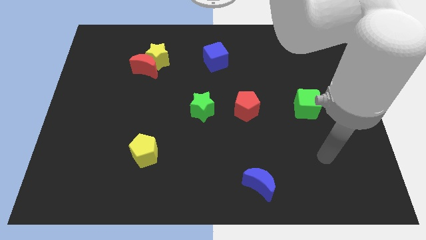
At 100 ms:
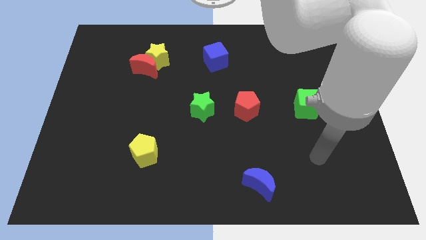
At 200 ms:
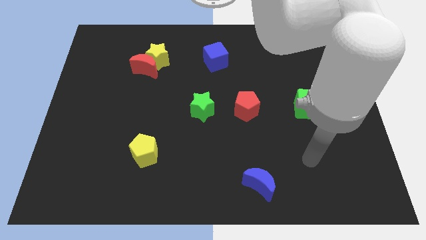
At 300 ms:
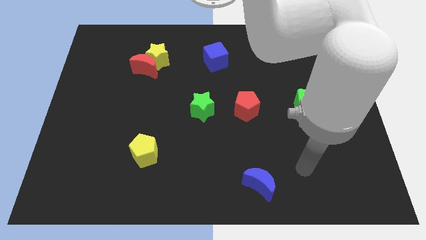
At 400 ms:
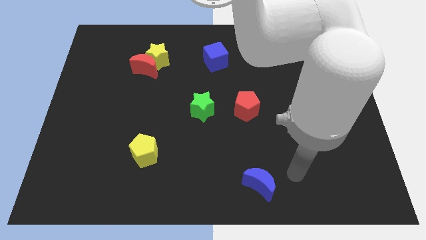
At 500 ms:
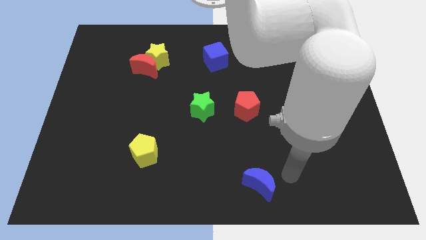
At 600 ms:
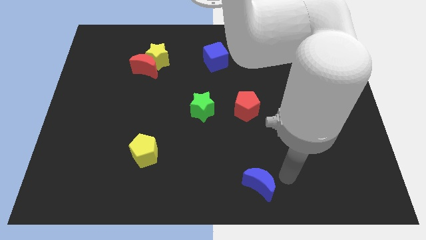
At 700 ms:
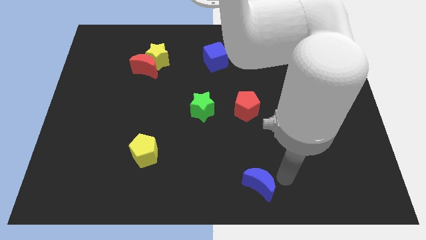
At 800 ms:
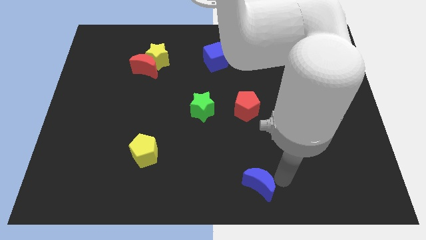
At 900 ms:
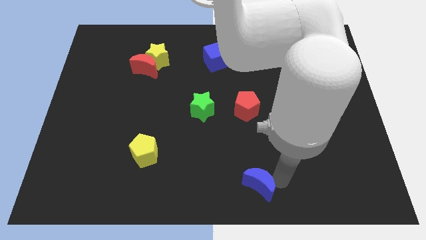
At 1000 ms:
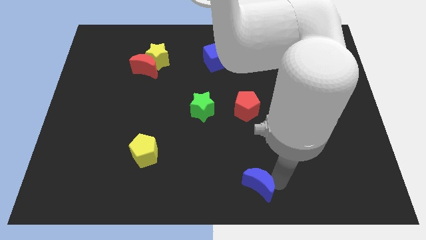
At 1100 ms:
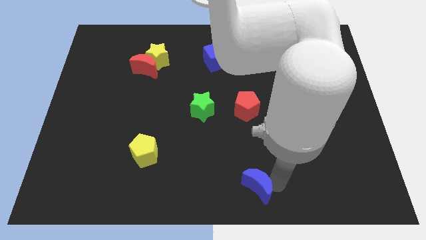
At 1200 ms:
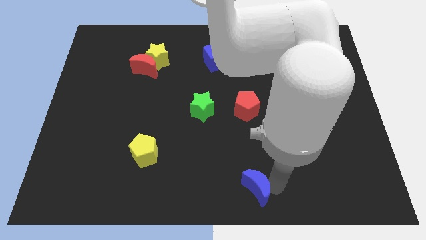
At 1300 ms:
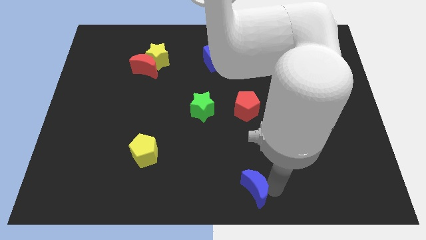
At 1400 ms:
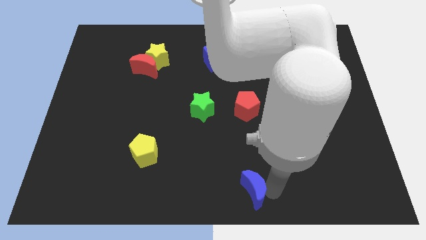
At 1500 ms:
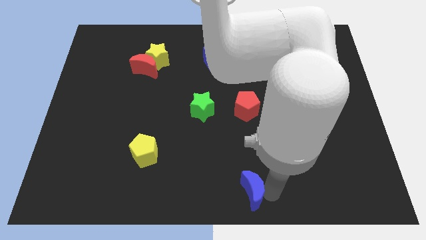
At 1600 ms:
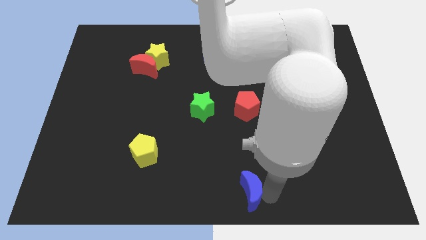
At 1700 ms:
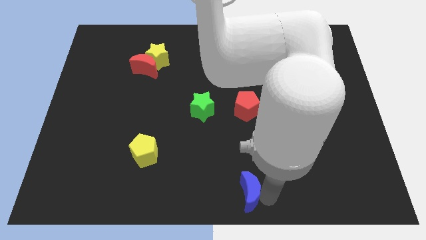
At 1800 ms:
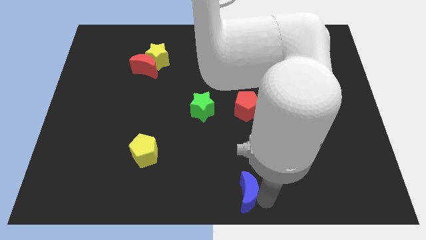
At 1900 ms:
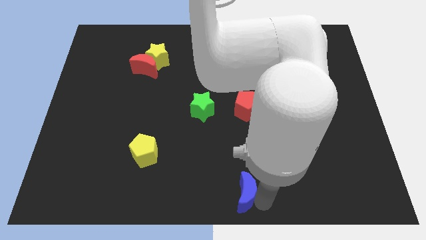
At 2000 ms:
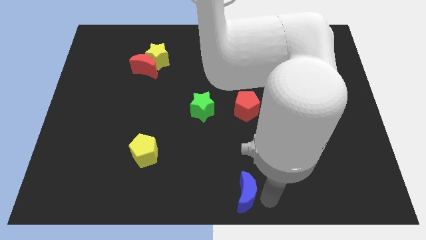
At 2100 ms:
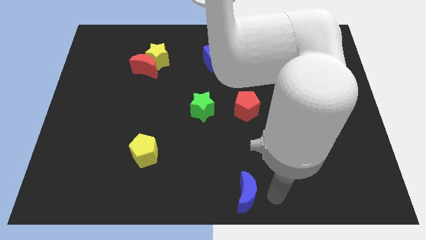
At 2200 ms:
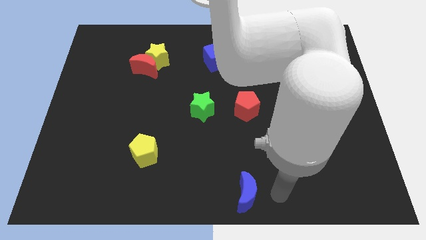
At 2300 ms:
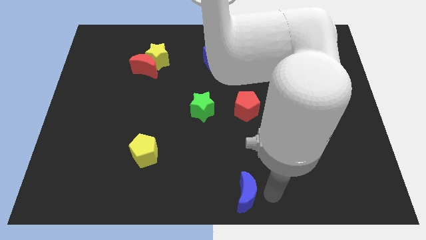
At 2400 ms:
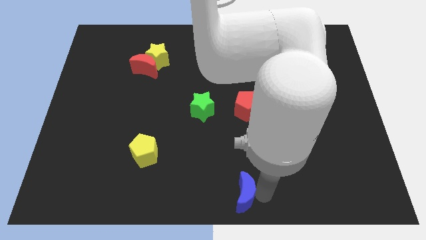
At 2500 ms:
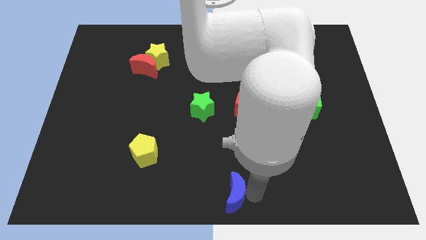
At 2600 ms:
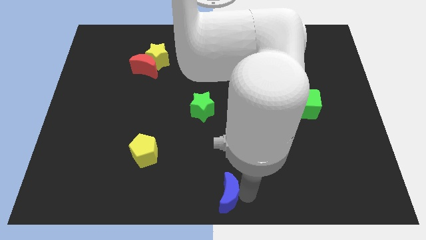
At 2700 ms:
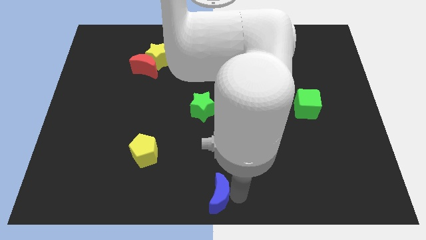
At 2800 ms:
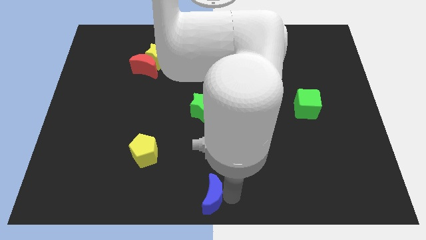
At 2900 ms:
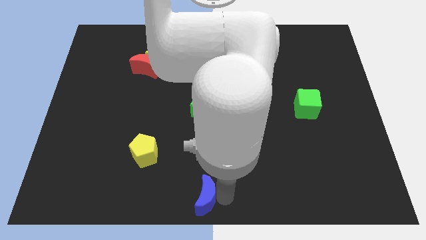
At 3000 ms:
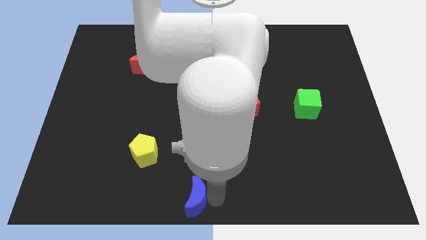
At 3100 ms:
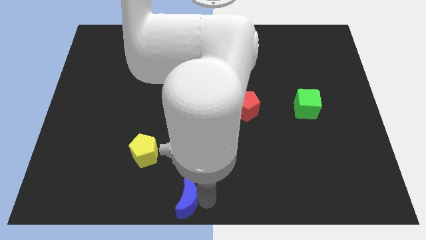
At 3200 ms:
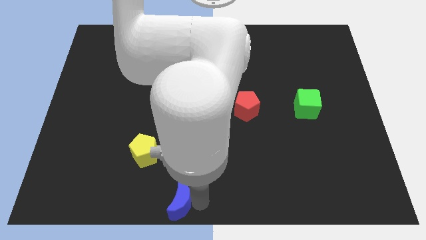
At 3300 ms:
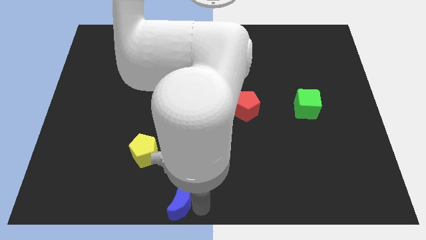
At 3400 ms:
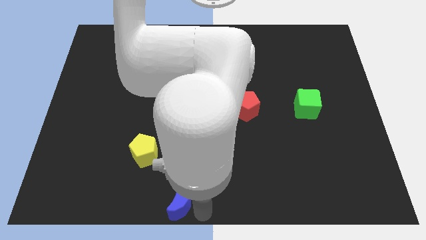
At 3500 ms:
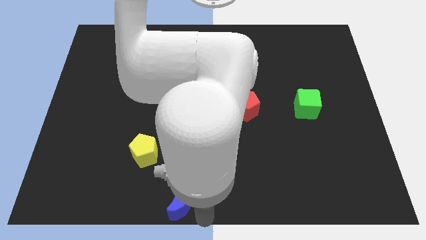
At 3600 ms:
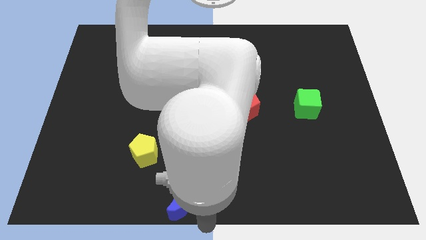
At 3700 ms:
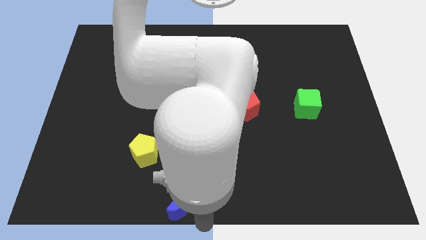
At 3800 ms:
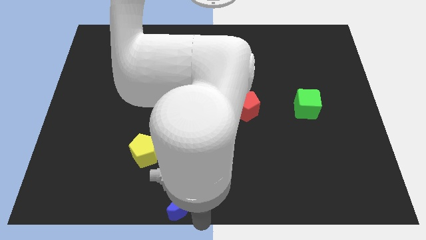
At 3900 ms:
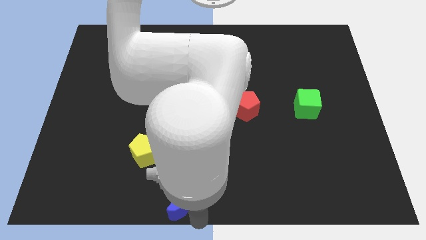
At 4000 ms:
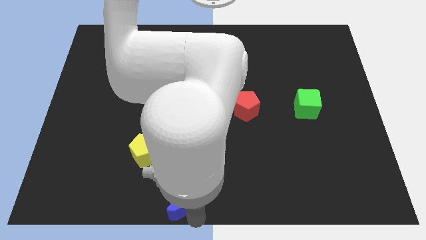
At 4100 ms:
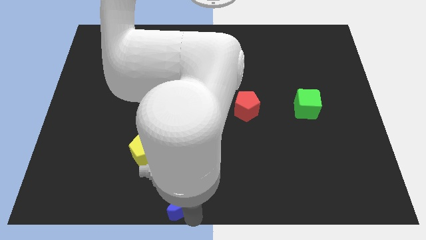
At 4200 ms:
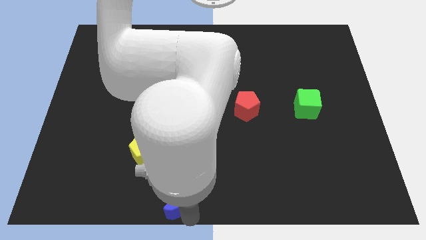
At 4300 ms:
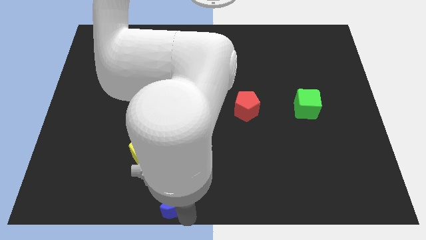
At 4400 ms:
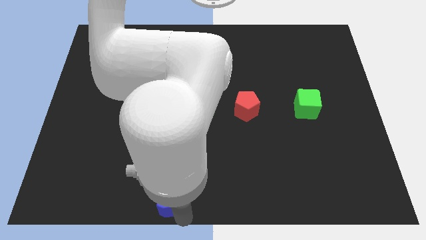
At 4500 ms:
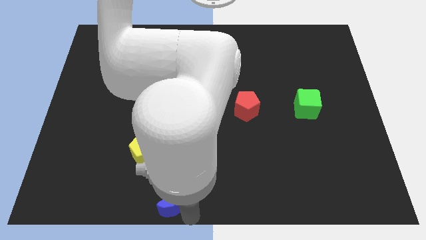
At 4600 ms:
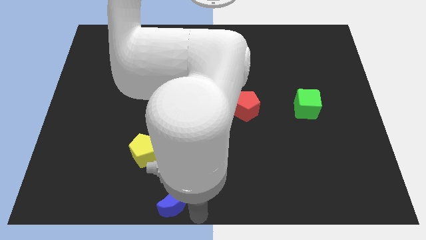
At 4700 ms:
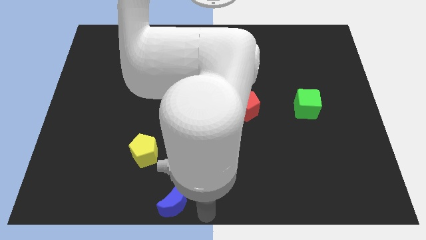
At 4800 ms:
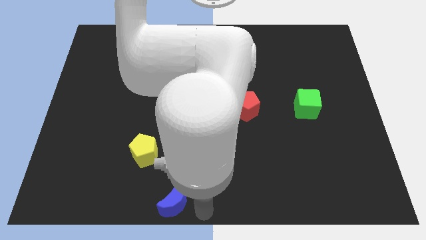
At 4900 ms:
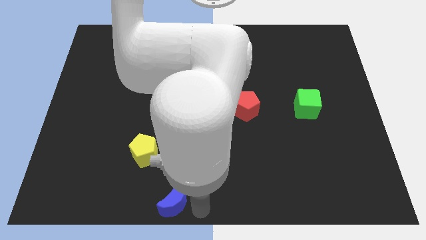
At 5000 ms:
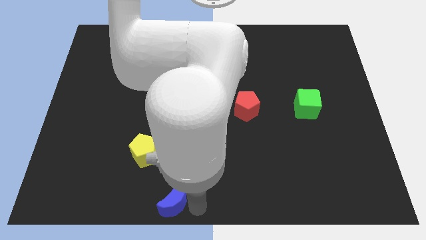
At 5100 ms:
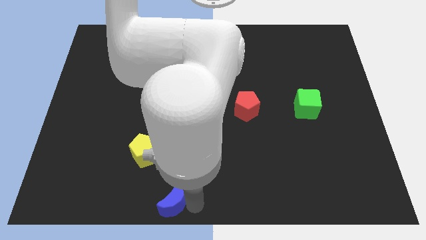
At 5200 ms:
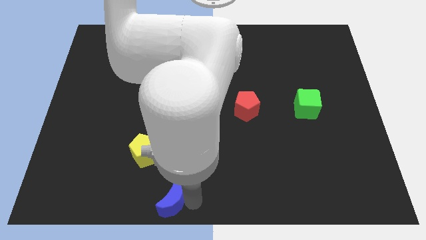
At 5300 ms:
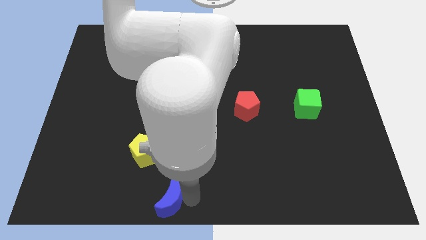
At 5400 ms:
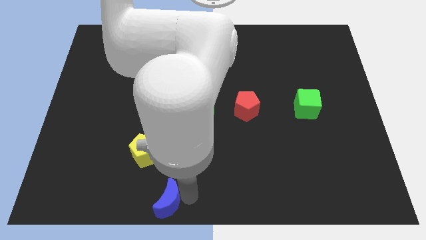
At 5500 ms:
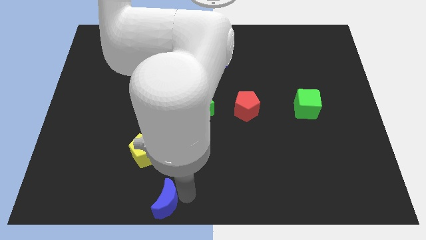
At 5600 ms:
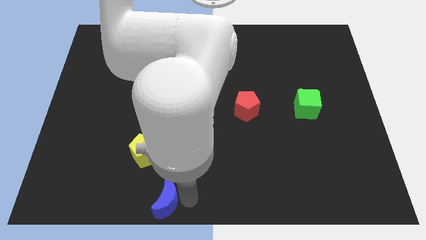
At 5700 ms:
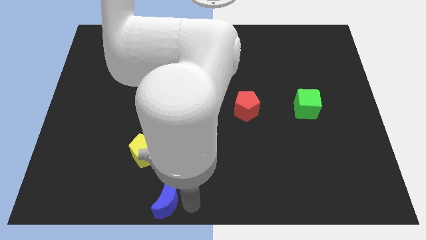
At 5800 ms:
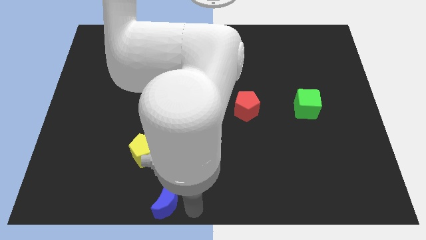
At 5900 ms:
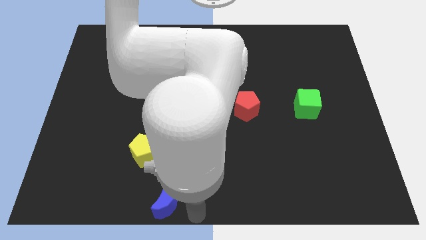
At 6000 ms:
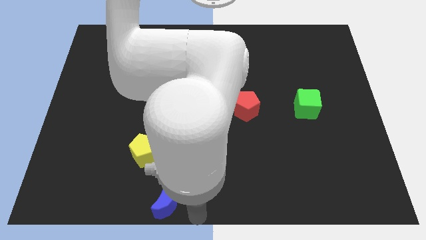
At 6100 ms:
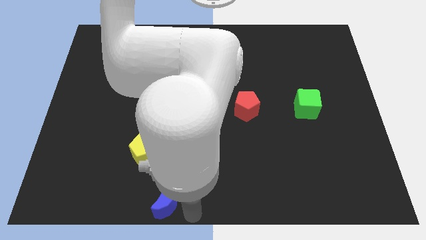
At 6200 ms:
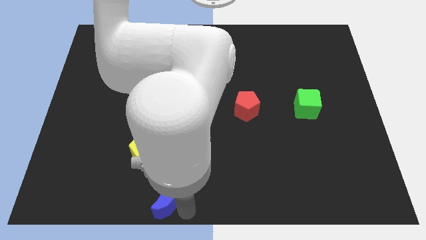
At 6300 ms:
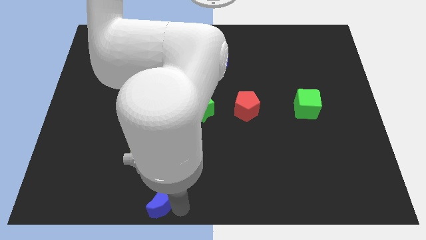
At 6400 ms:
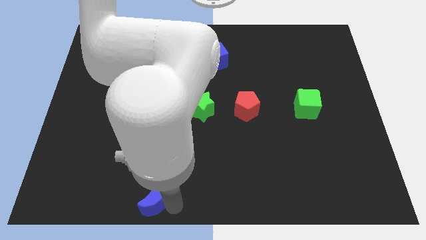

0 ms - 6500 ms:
move the blue moon to the left

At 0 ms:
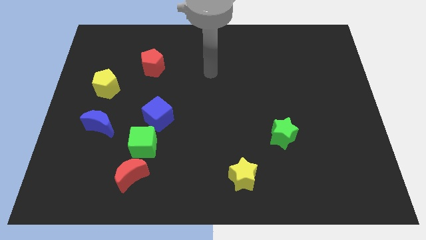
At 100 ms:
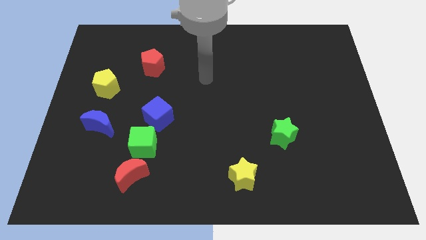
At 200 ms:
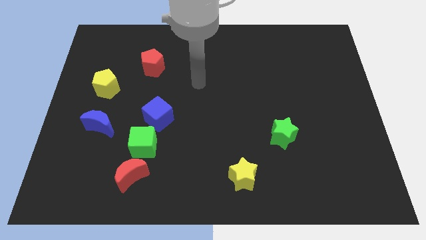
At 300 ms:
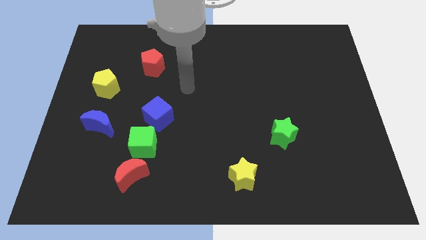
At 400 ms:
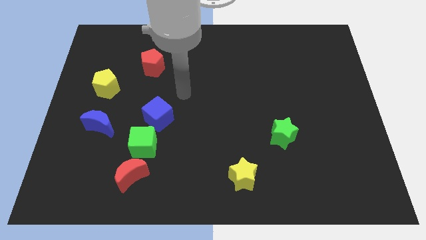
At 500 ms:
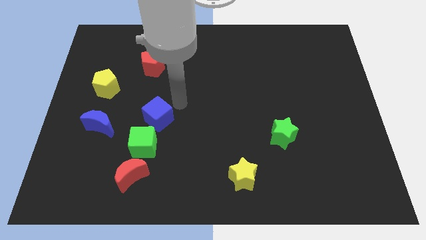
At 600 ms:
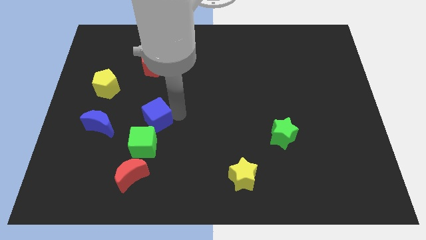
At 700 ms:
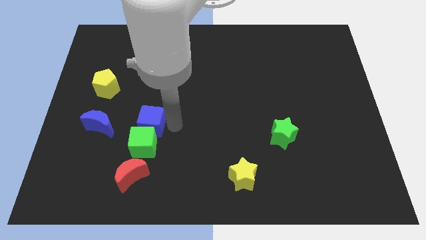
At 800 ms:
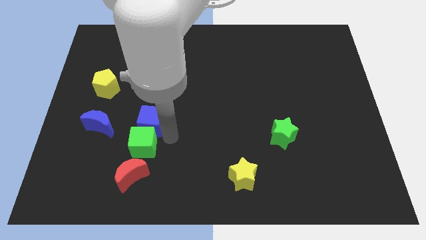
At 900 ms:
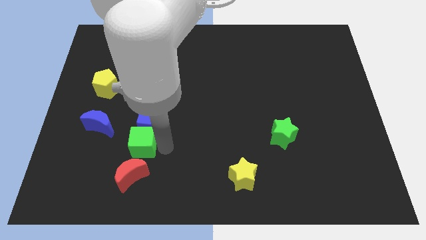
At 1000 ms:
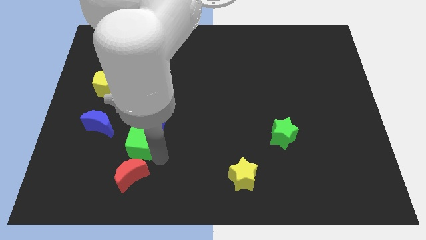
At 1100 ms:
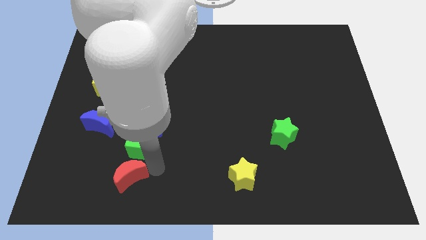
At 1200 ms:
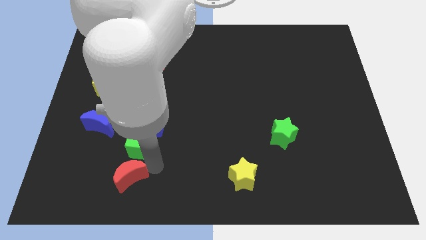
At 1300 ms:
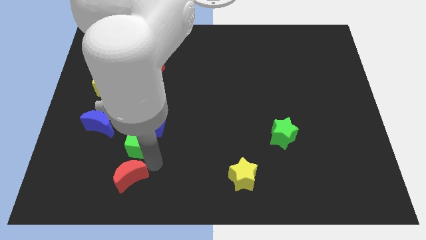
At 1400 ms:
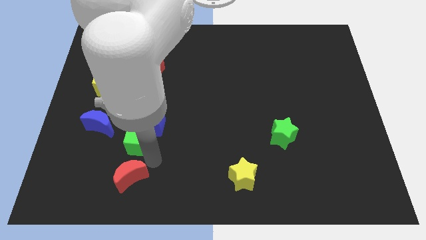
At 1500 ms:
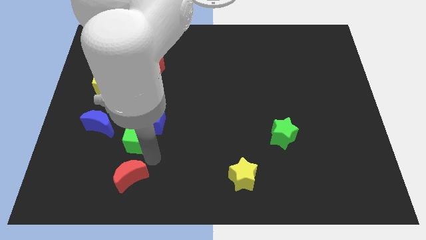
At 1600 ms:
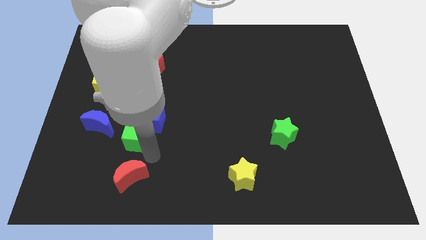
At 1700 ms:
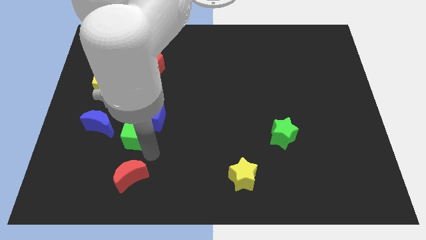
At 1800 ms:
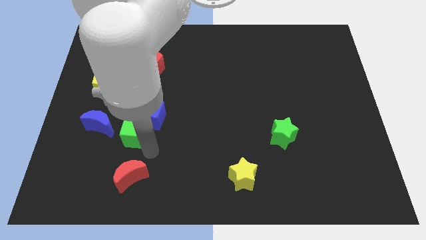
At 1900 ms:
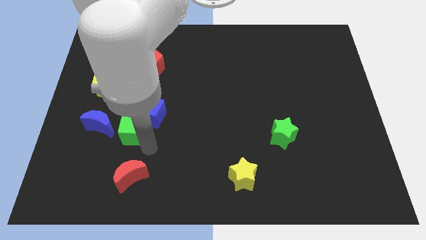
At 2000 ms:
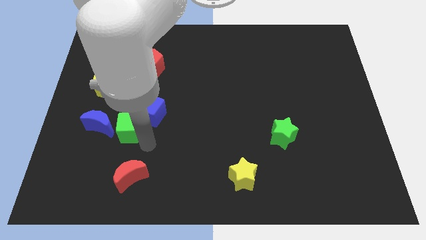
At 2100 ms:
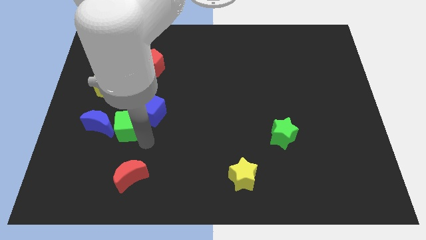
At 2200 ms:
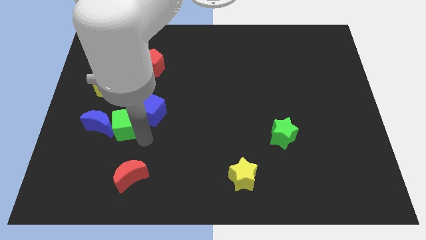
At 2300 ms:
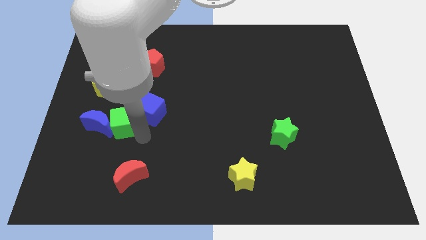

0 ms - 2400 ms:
slightly move the green cube diagonally upwards and left
